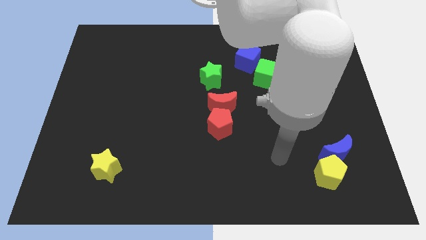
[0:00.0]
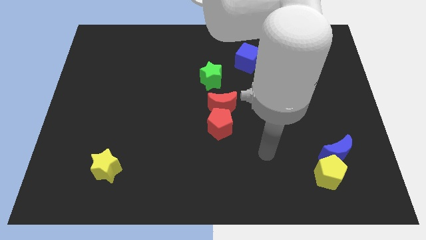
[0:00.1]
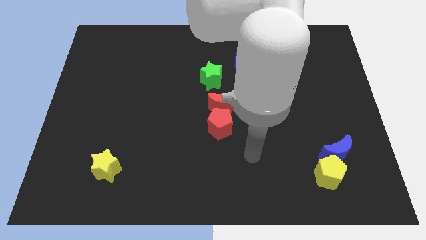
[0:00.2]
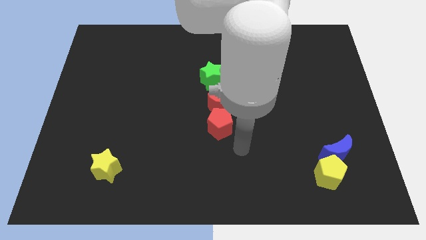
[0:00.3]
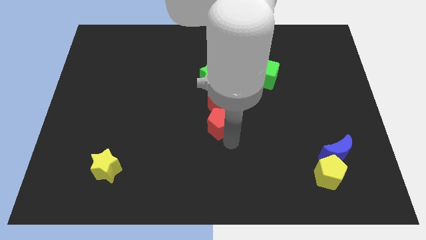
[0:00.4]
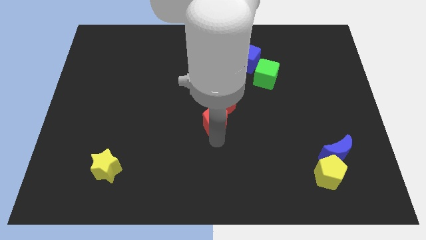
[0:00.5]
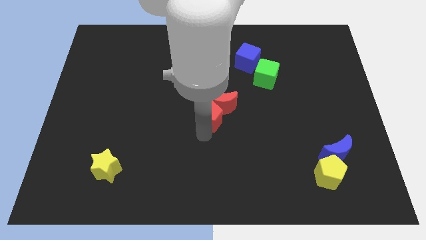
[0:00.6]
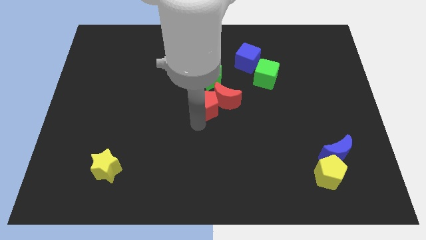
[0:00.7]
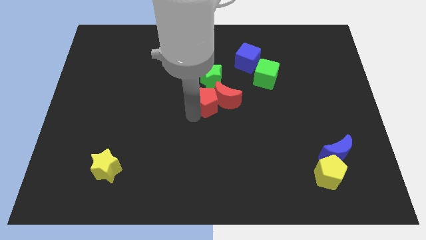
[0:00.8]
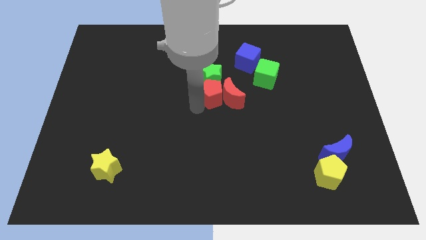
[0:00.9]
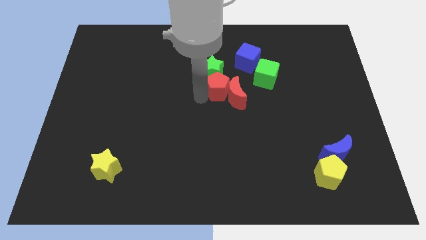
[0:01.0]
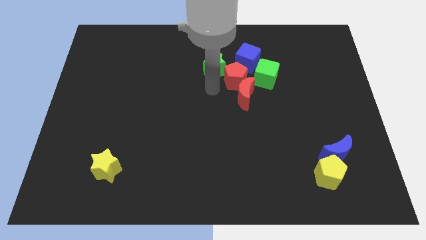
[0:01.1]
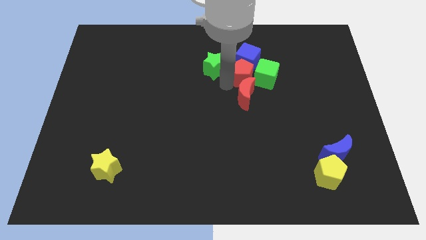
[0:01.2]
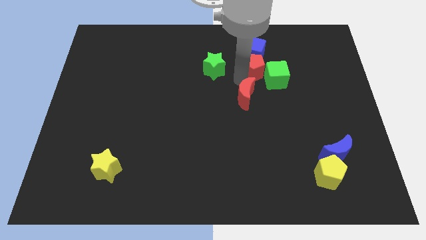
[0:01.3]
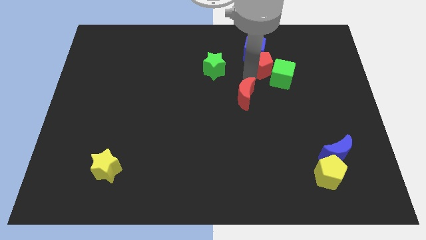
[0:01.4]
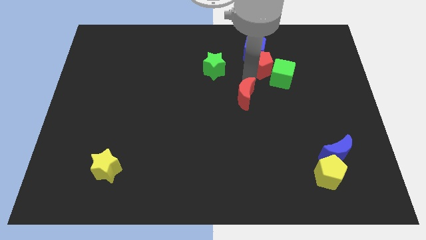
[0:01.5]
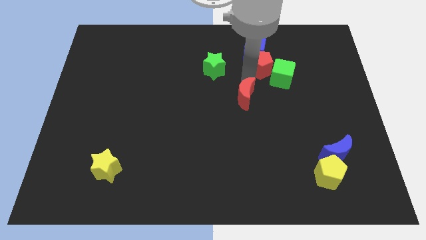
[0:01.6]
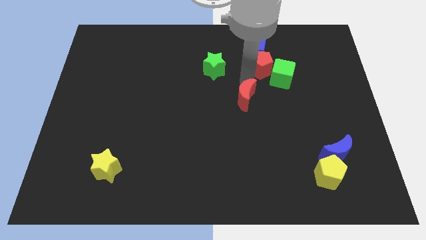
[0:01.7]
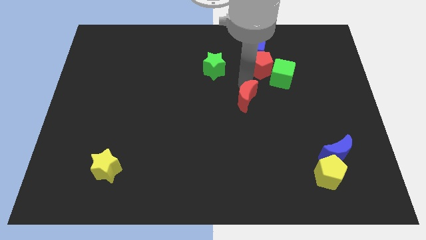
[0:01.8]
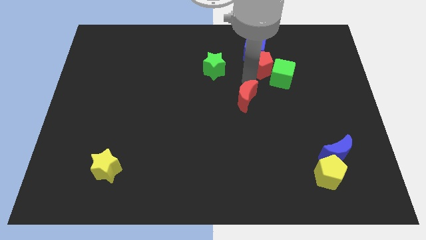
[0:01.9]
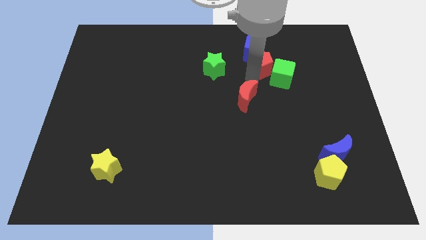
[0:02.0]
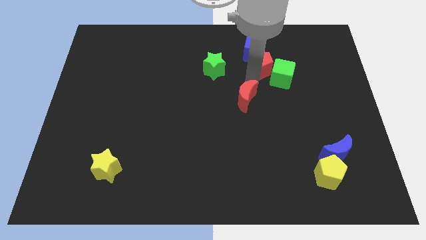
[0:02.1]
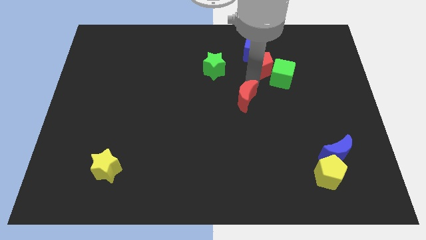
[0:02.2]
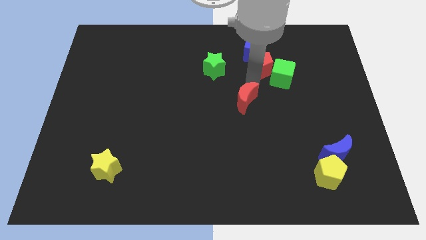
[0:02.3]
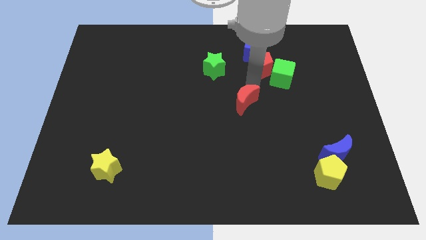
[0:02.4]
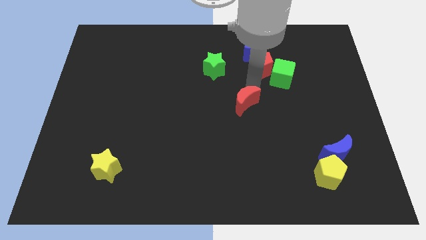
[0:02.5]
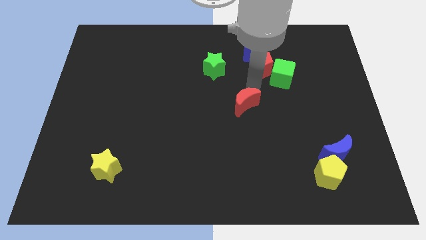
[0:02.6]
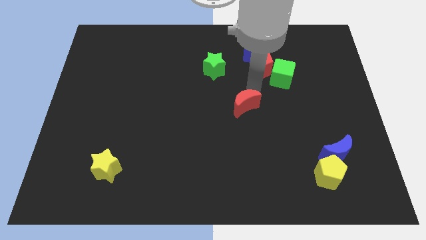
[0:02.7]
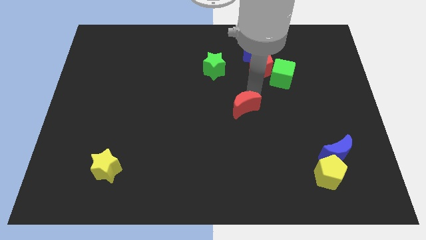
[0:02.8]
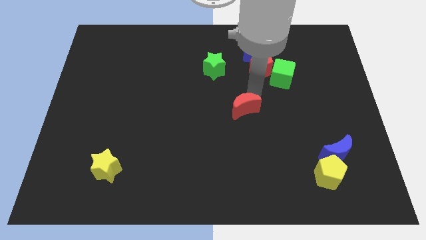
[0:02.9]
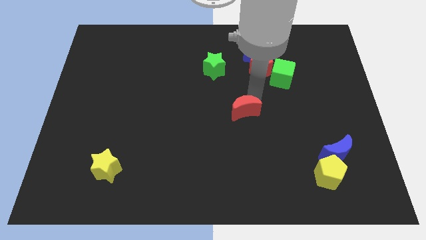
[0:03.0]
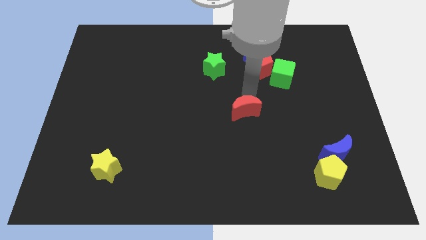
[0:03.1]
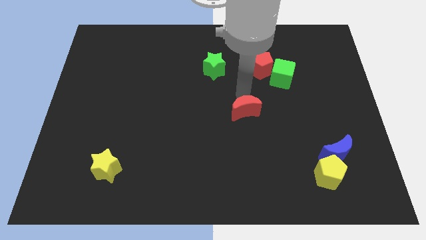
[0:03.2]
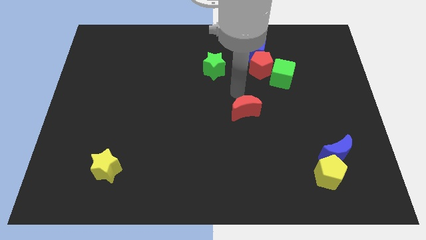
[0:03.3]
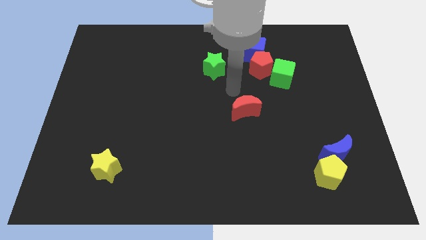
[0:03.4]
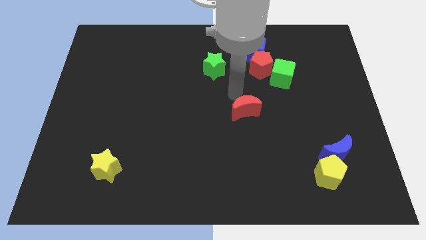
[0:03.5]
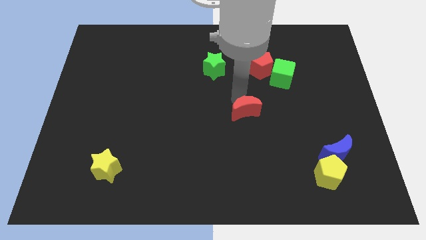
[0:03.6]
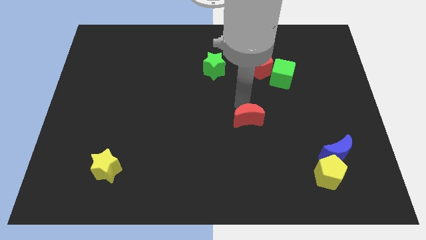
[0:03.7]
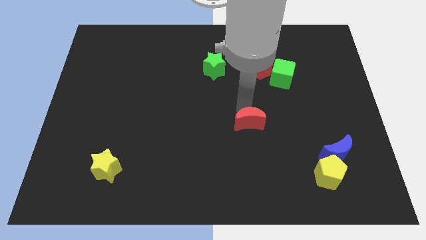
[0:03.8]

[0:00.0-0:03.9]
slide the red moon somewhat down and then to the right

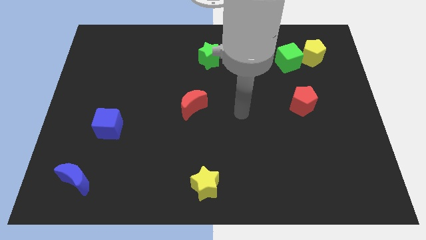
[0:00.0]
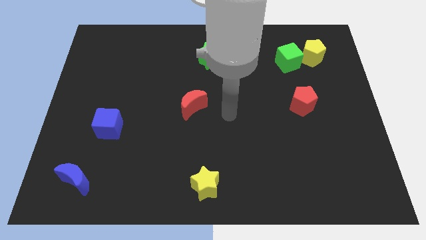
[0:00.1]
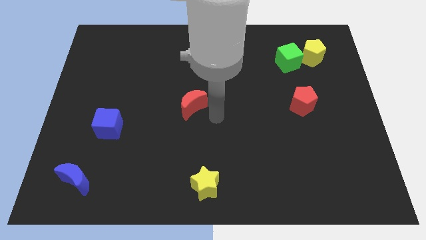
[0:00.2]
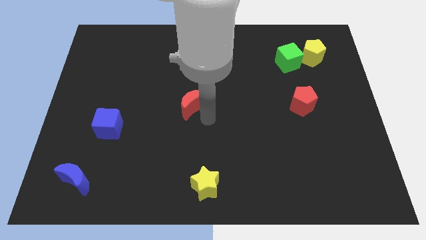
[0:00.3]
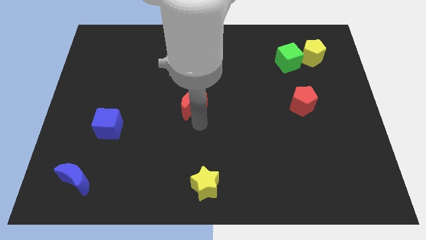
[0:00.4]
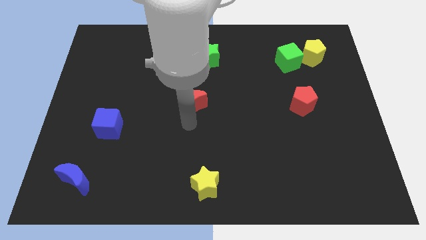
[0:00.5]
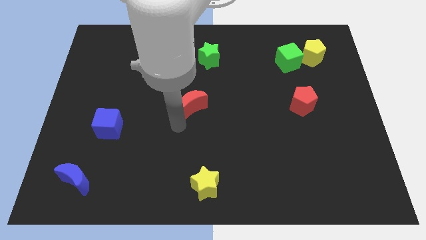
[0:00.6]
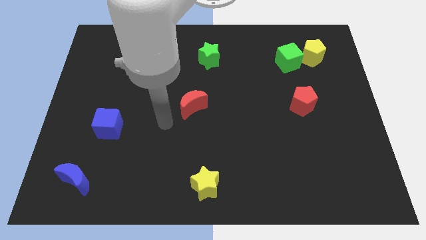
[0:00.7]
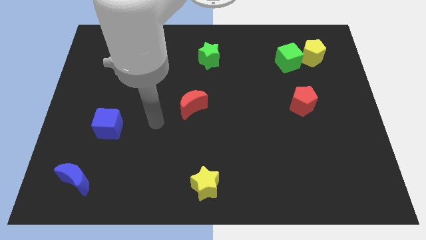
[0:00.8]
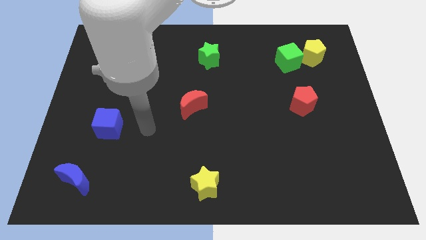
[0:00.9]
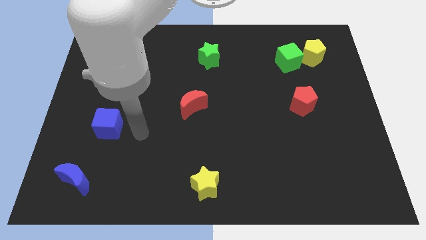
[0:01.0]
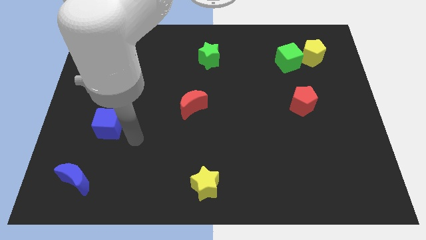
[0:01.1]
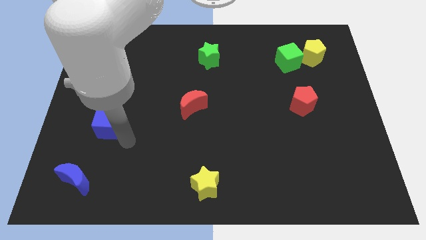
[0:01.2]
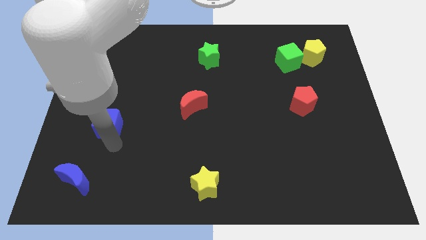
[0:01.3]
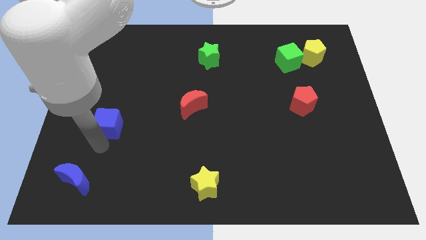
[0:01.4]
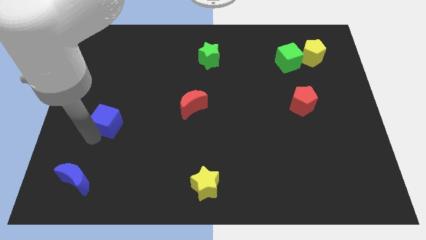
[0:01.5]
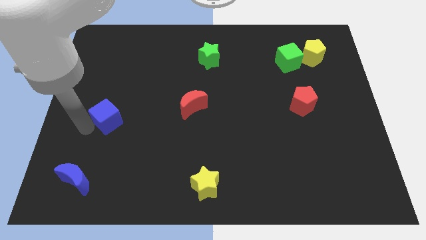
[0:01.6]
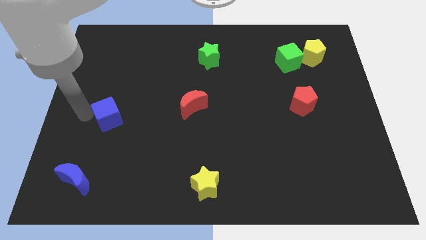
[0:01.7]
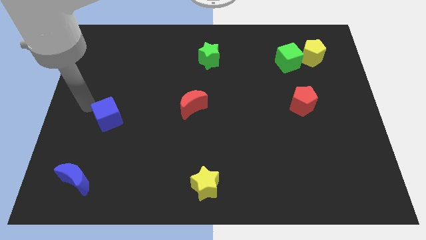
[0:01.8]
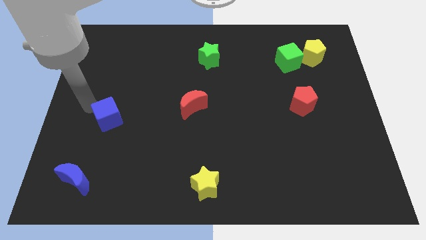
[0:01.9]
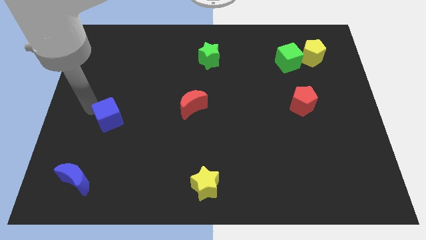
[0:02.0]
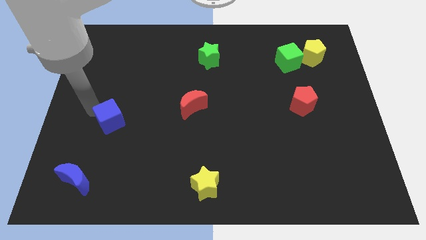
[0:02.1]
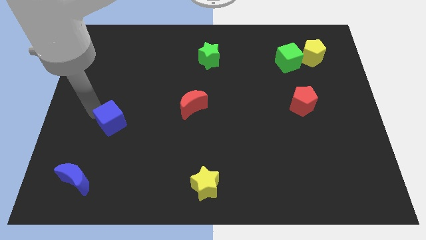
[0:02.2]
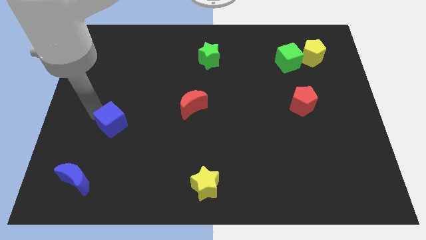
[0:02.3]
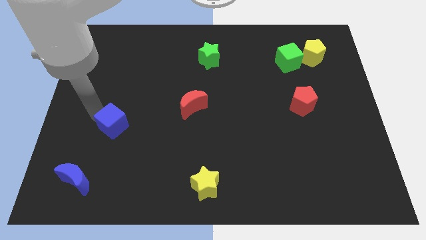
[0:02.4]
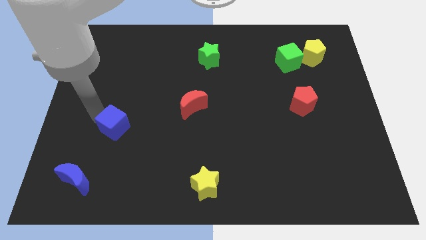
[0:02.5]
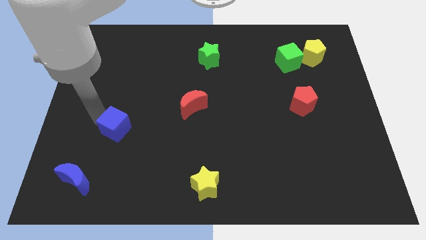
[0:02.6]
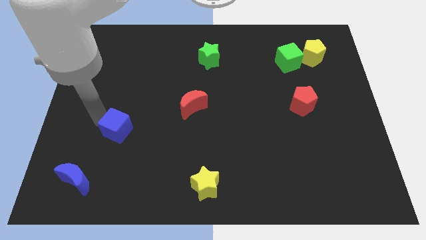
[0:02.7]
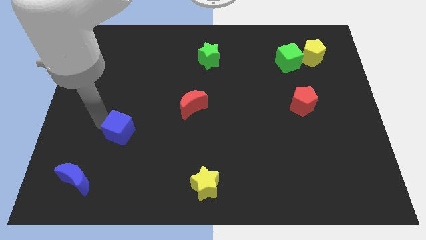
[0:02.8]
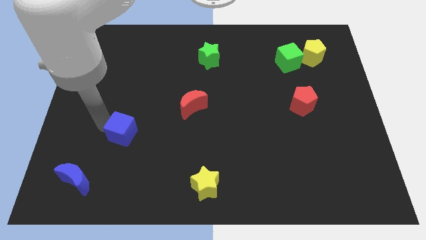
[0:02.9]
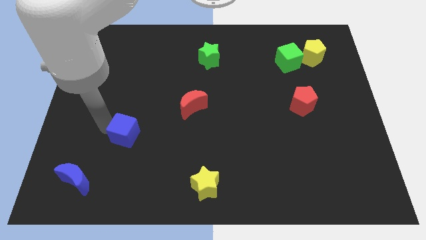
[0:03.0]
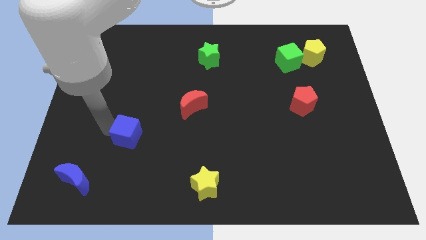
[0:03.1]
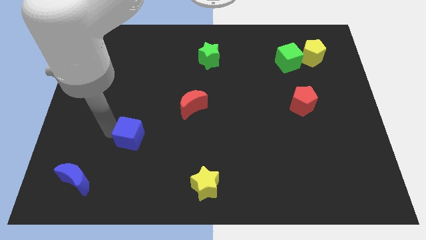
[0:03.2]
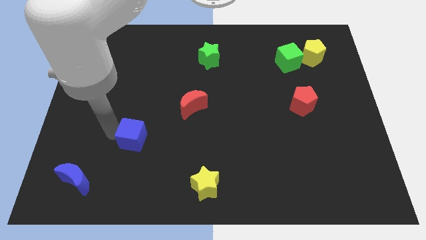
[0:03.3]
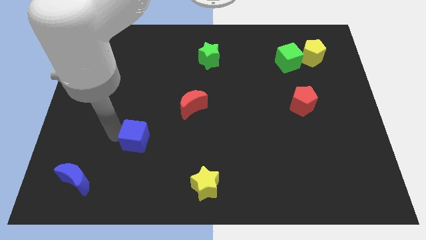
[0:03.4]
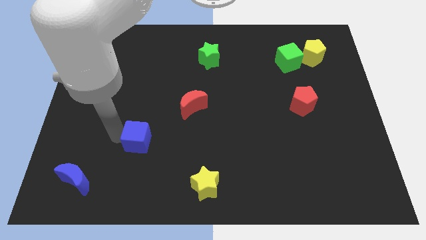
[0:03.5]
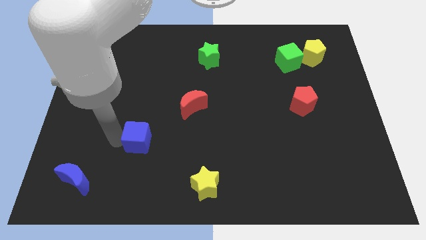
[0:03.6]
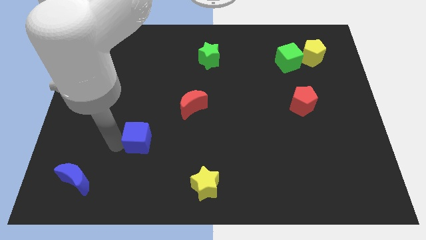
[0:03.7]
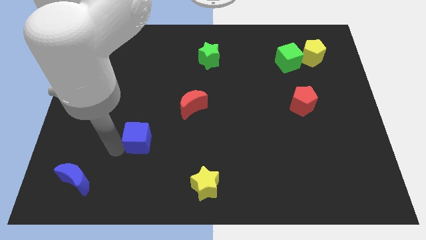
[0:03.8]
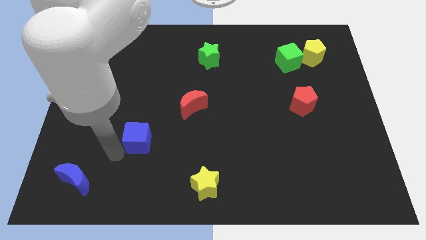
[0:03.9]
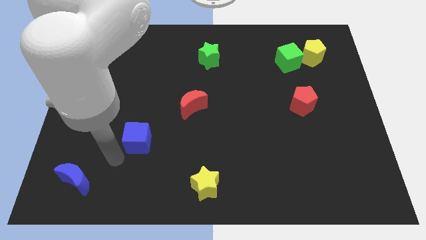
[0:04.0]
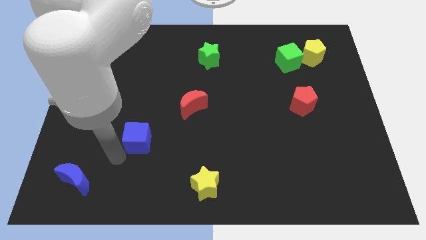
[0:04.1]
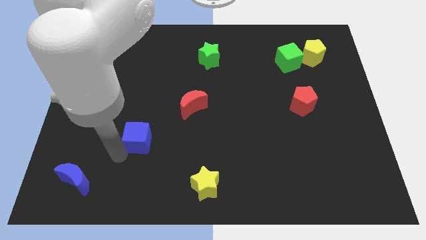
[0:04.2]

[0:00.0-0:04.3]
move the blue cube right somewhat
